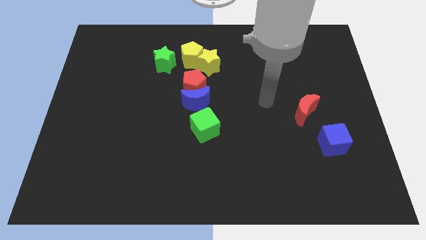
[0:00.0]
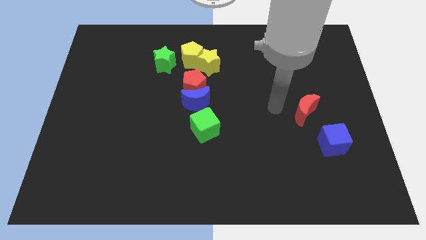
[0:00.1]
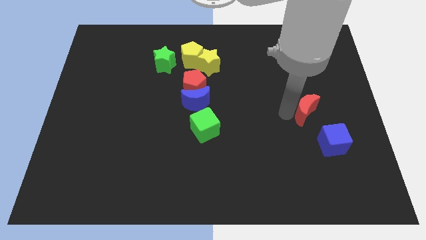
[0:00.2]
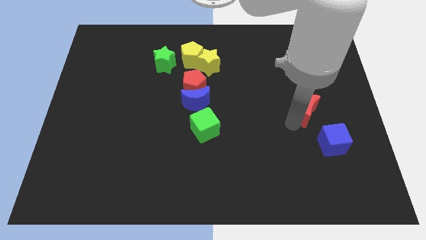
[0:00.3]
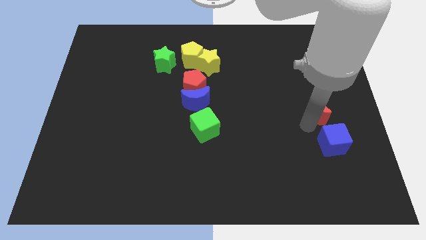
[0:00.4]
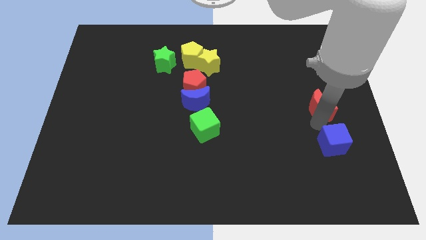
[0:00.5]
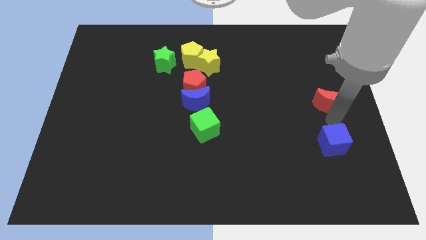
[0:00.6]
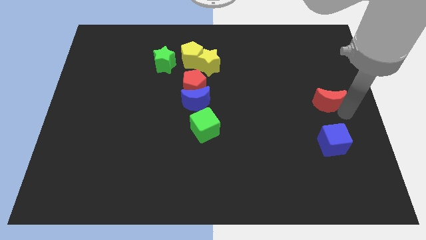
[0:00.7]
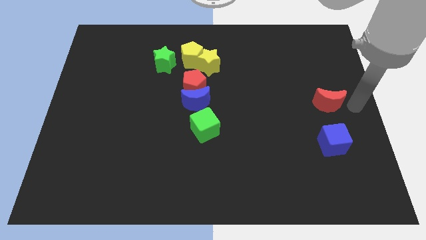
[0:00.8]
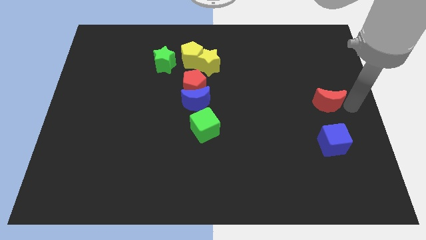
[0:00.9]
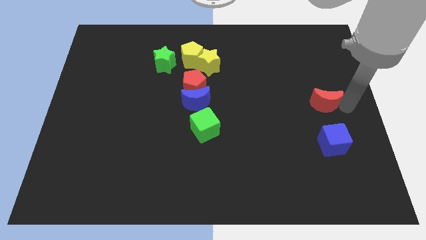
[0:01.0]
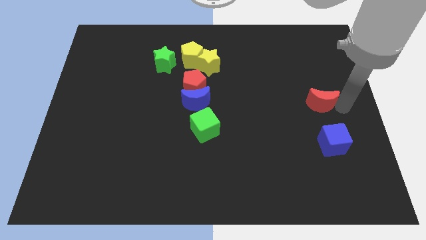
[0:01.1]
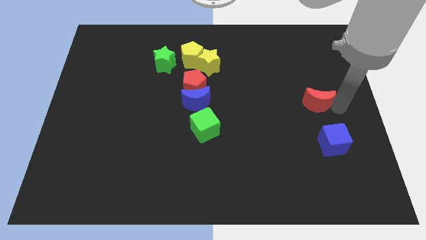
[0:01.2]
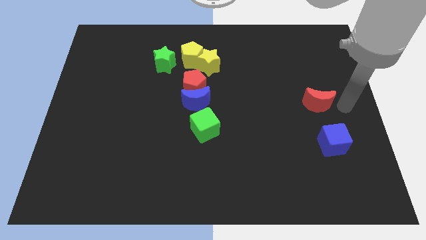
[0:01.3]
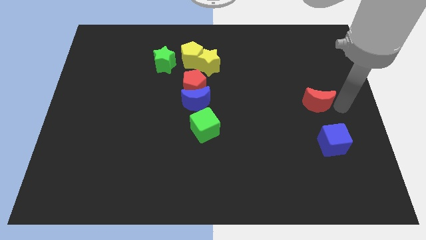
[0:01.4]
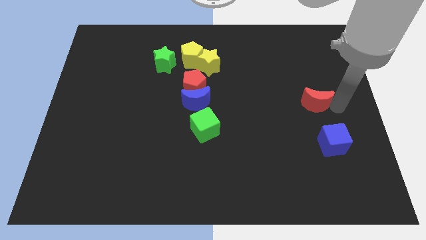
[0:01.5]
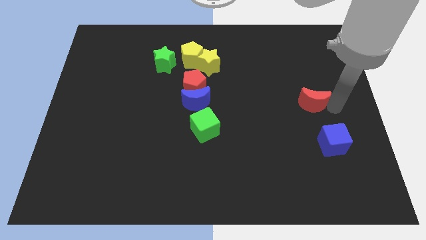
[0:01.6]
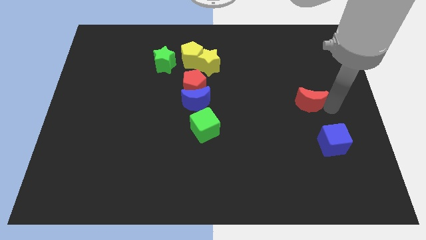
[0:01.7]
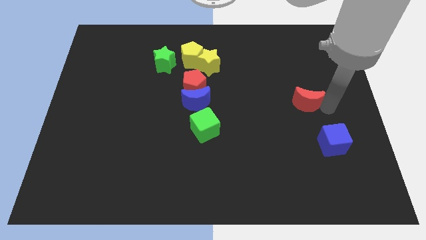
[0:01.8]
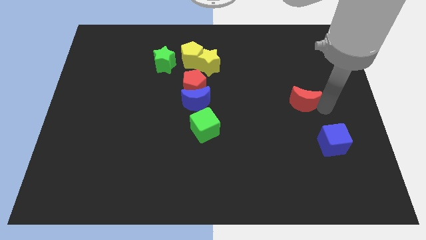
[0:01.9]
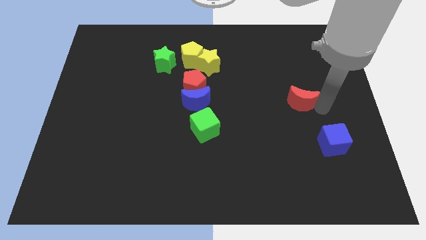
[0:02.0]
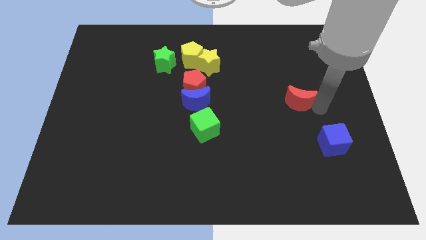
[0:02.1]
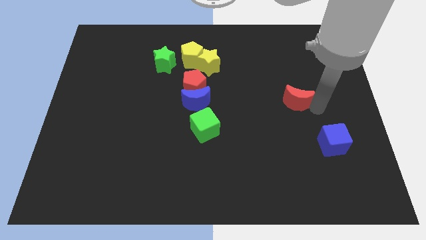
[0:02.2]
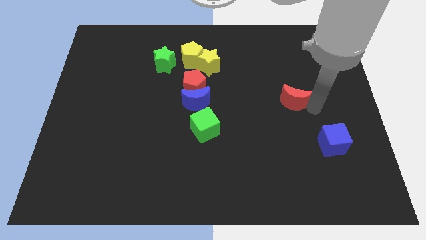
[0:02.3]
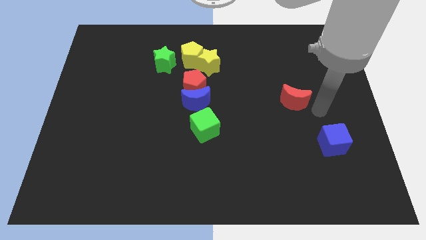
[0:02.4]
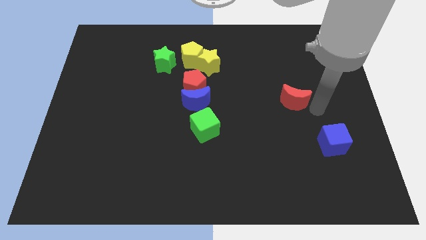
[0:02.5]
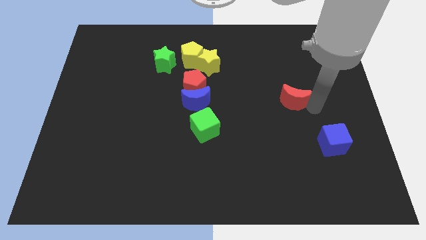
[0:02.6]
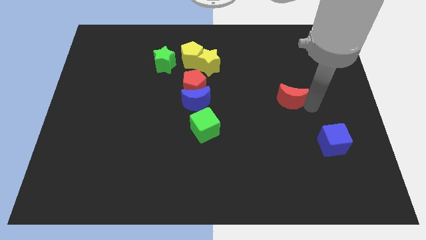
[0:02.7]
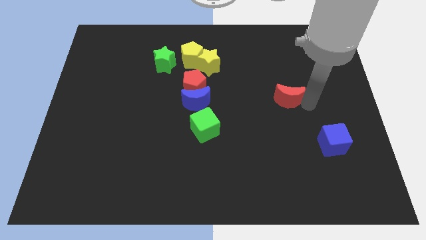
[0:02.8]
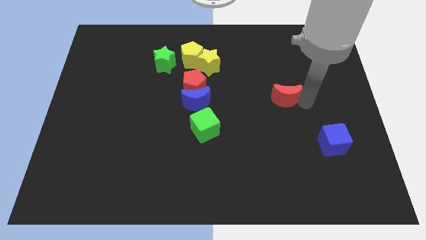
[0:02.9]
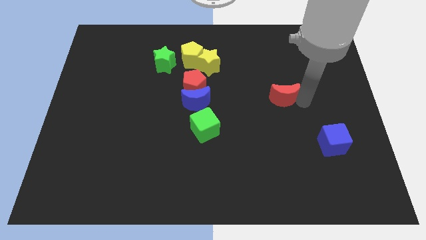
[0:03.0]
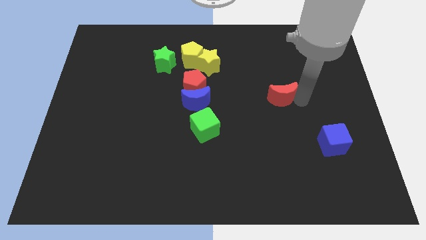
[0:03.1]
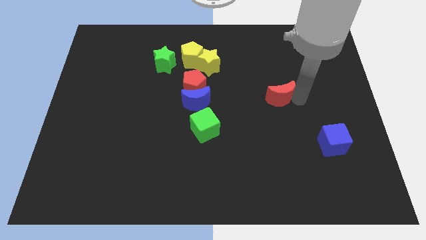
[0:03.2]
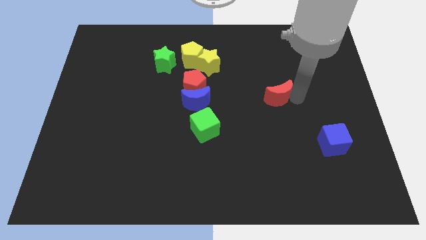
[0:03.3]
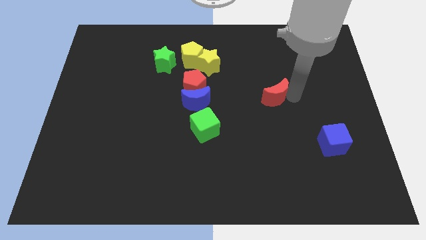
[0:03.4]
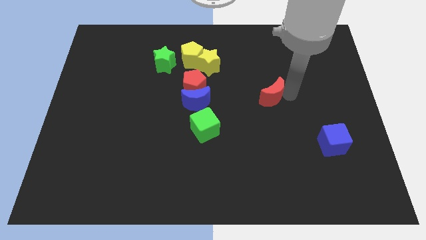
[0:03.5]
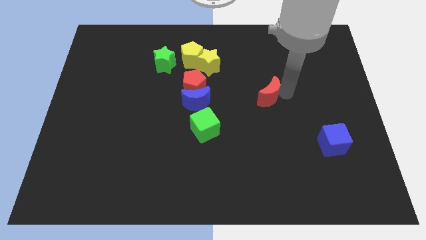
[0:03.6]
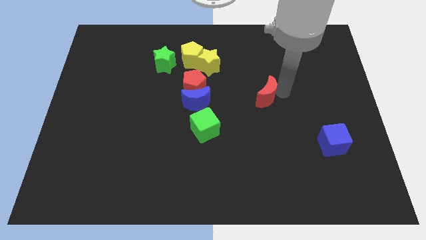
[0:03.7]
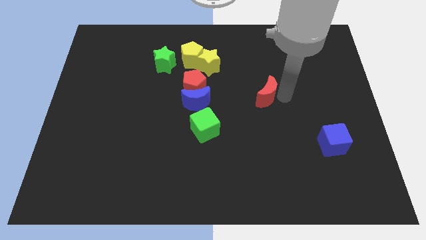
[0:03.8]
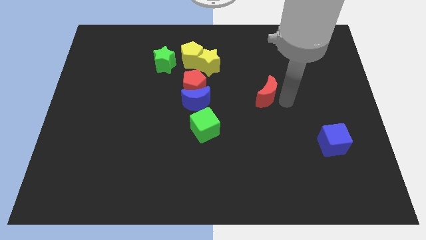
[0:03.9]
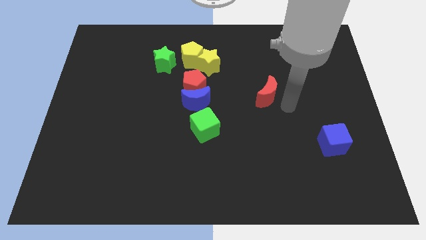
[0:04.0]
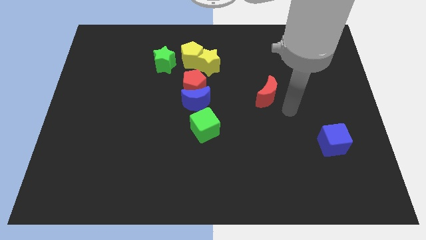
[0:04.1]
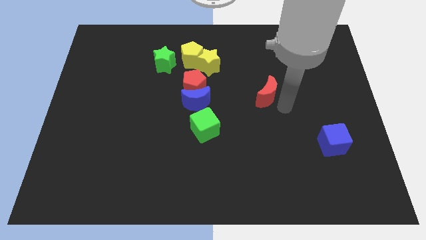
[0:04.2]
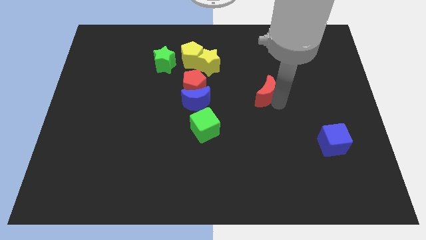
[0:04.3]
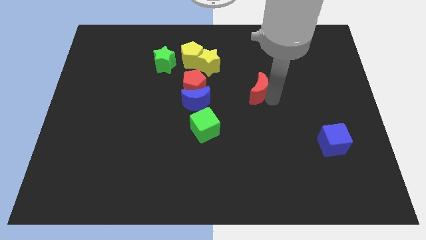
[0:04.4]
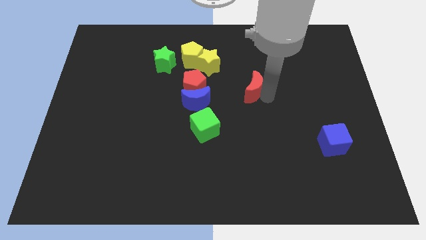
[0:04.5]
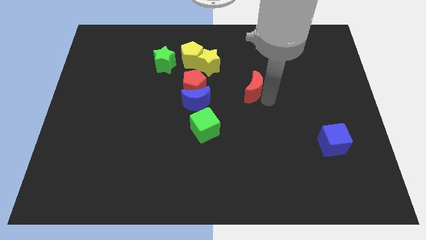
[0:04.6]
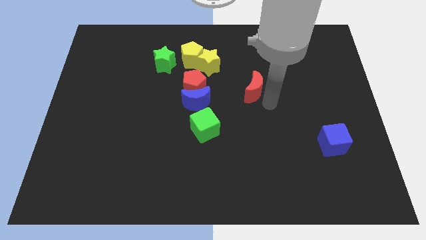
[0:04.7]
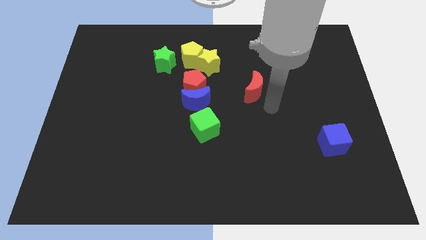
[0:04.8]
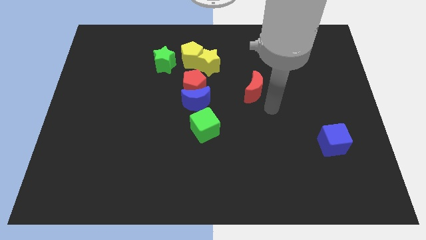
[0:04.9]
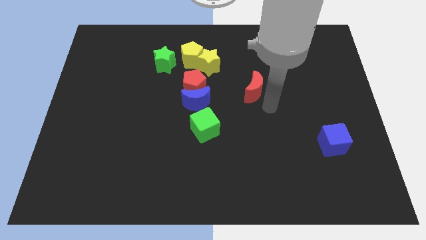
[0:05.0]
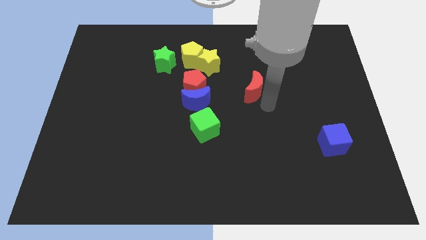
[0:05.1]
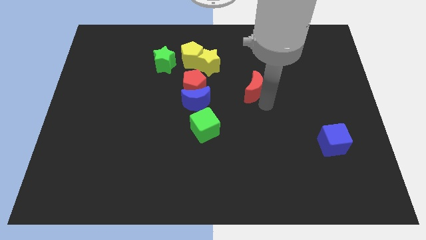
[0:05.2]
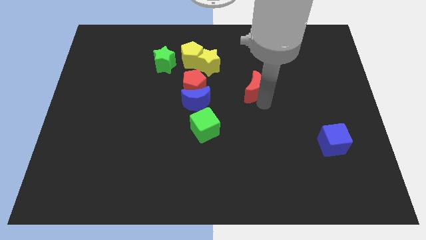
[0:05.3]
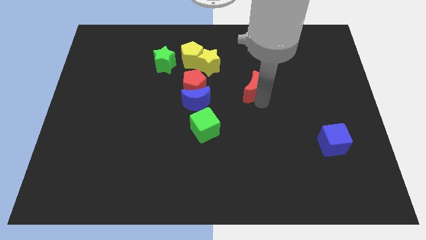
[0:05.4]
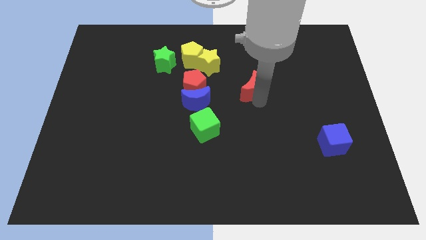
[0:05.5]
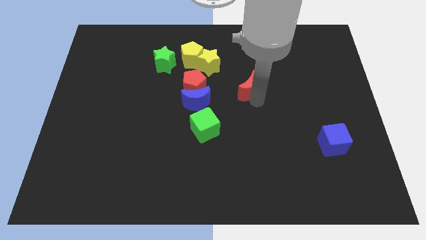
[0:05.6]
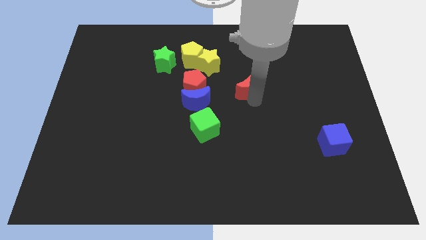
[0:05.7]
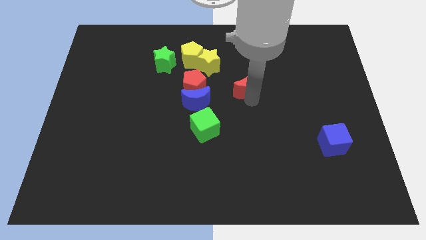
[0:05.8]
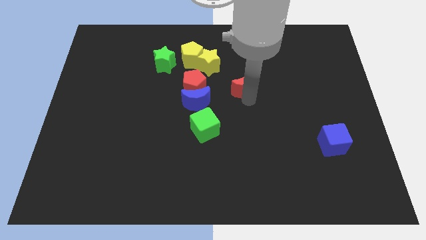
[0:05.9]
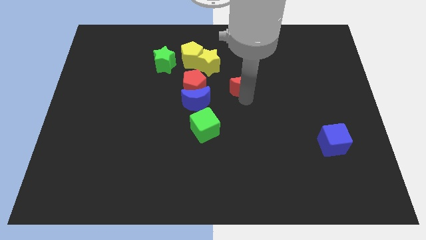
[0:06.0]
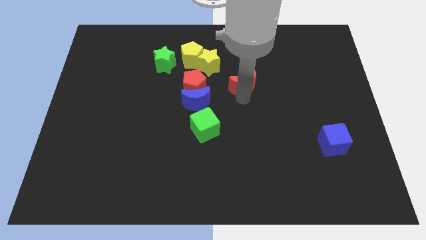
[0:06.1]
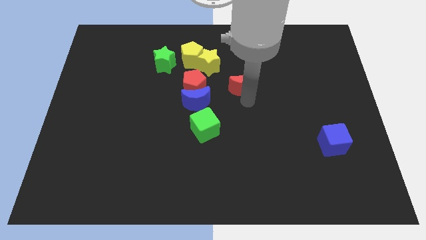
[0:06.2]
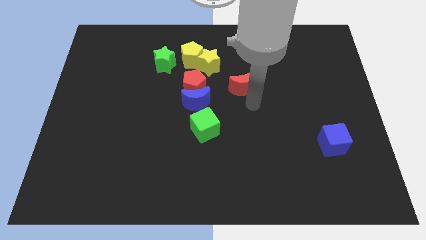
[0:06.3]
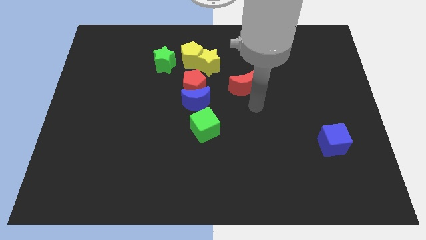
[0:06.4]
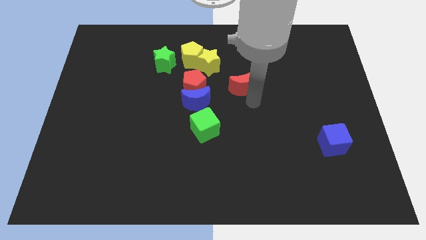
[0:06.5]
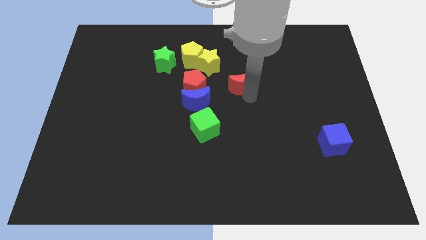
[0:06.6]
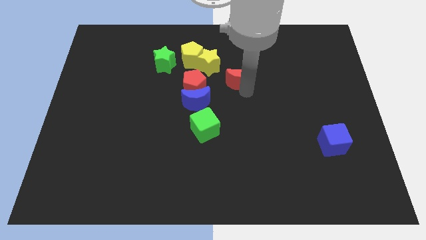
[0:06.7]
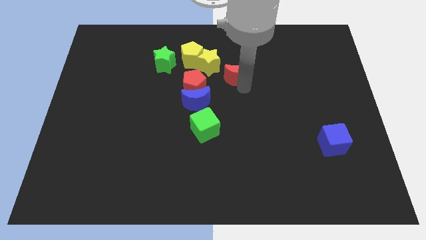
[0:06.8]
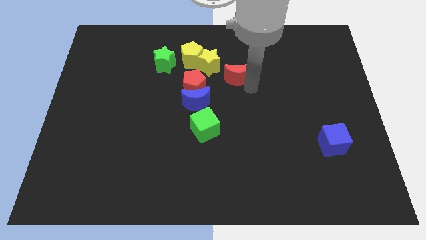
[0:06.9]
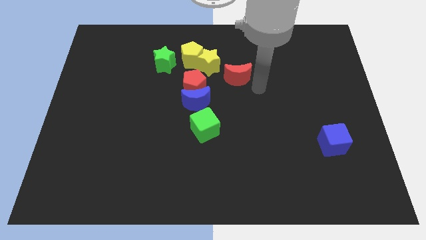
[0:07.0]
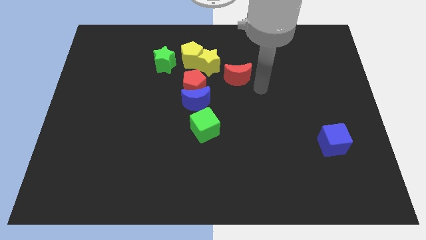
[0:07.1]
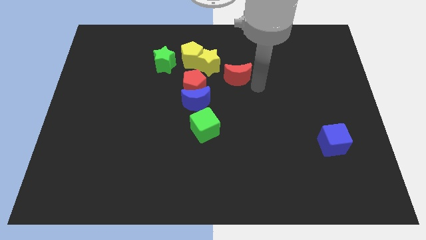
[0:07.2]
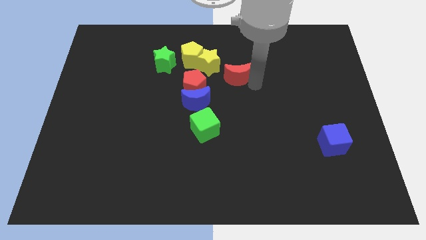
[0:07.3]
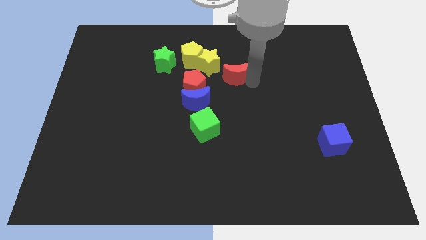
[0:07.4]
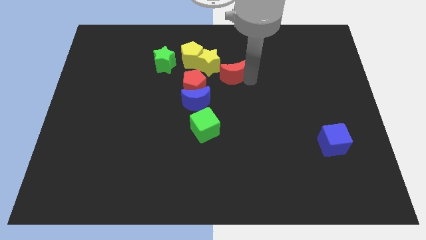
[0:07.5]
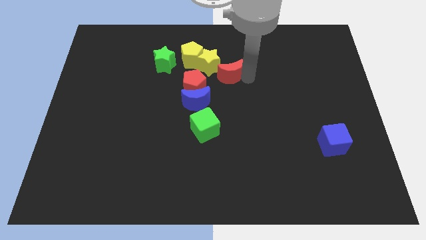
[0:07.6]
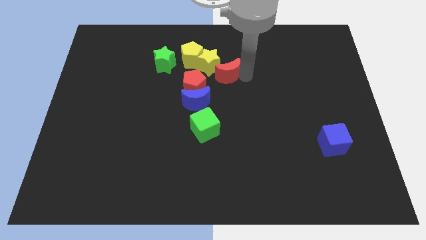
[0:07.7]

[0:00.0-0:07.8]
slide the red moon close to the yellow star
